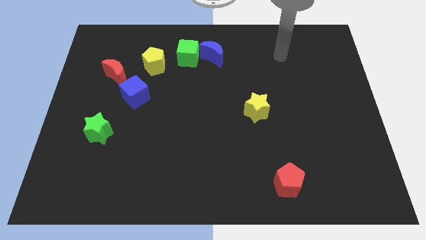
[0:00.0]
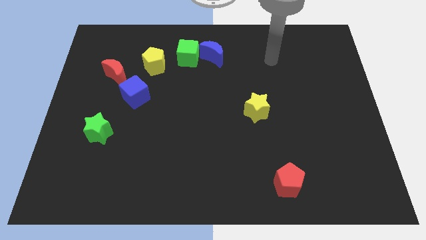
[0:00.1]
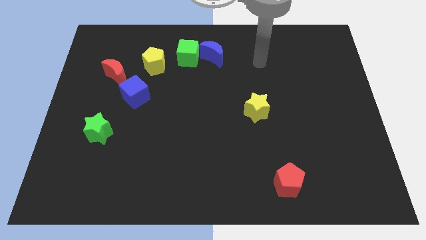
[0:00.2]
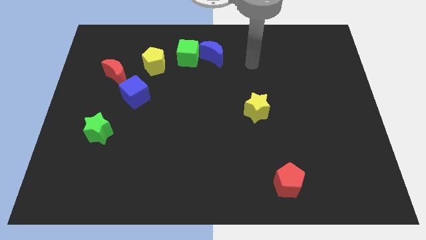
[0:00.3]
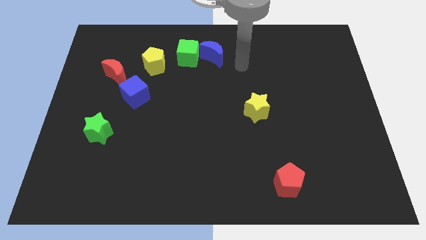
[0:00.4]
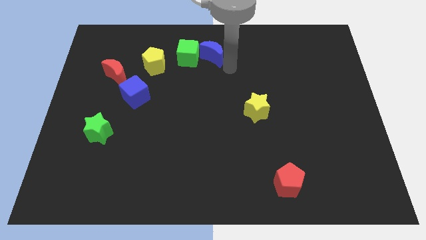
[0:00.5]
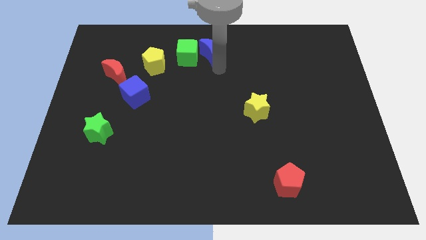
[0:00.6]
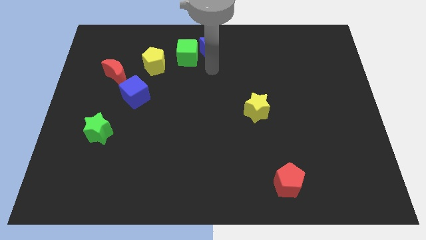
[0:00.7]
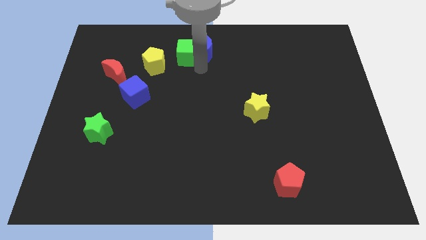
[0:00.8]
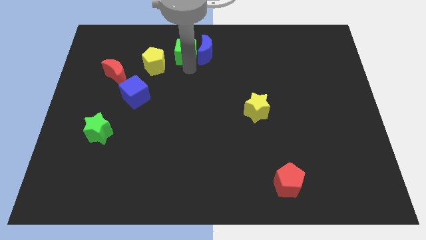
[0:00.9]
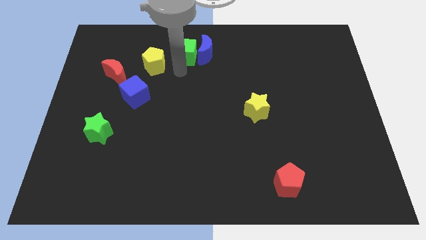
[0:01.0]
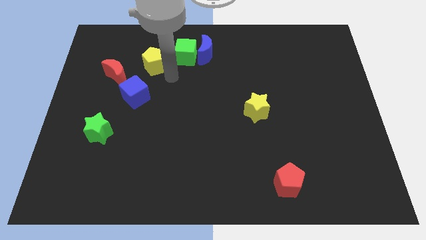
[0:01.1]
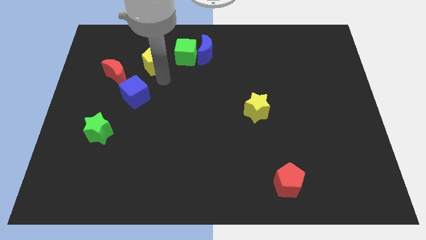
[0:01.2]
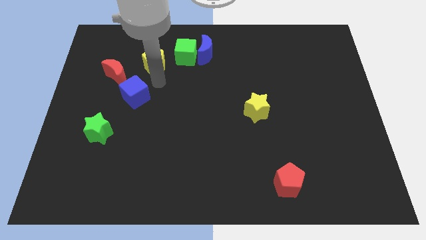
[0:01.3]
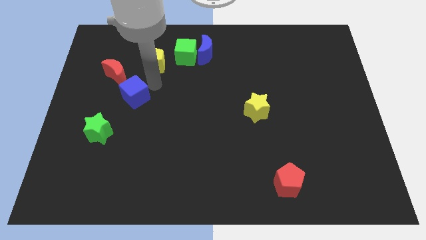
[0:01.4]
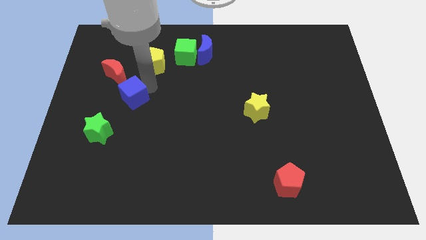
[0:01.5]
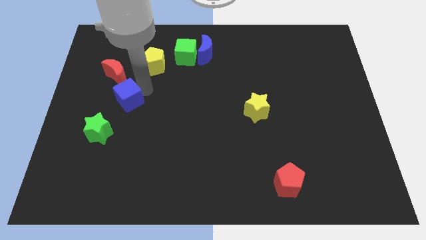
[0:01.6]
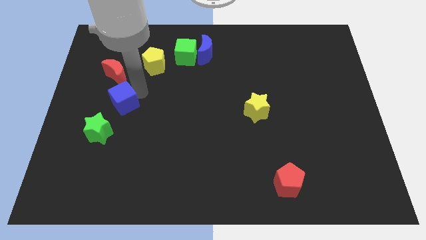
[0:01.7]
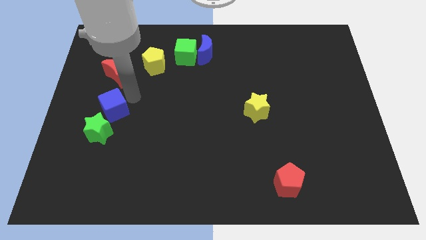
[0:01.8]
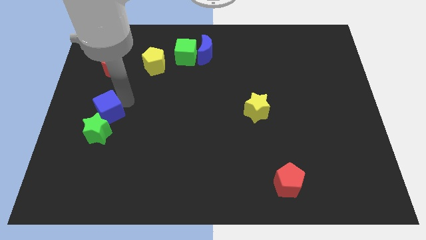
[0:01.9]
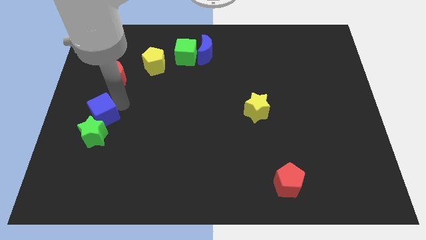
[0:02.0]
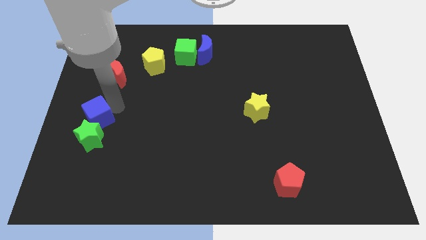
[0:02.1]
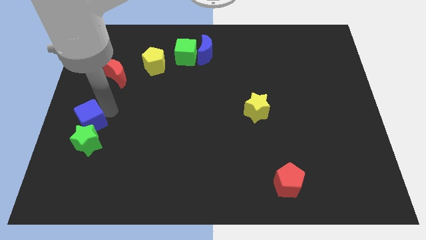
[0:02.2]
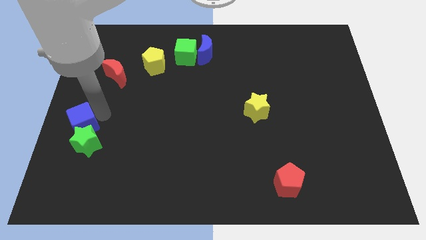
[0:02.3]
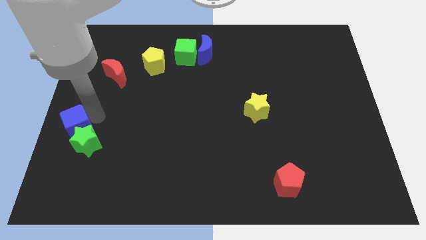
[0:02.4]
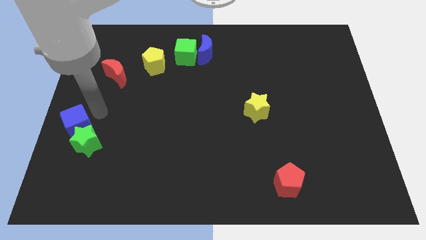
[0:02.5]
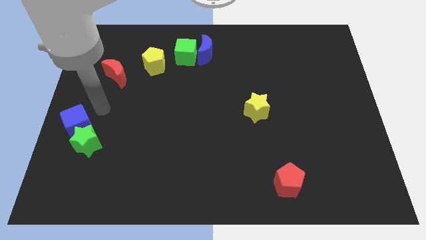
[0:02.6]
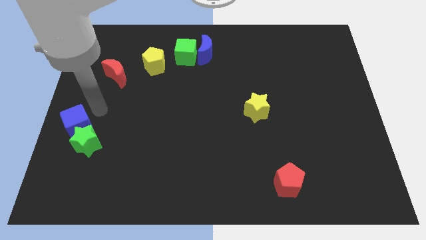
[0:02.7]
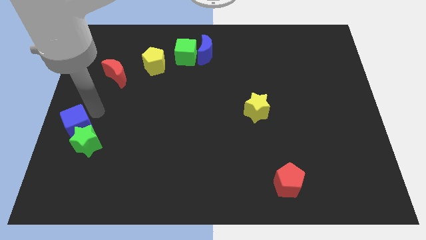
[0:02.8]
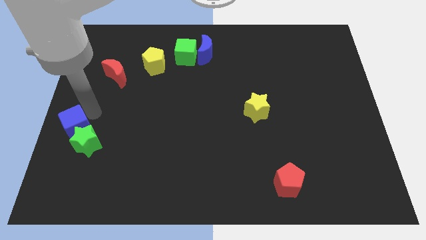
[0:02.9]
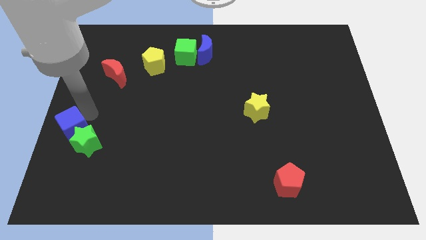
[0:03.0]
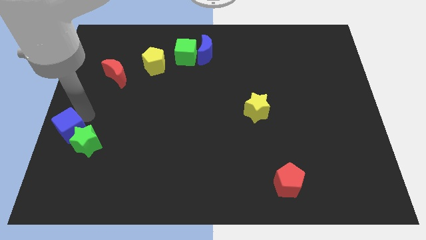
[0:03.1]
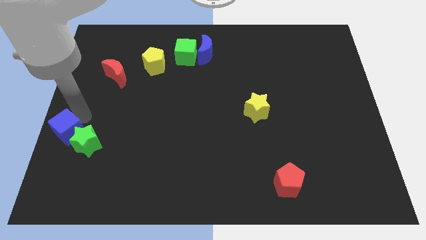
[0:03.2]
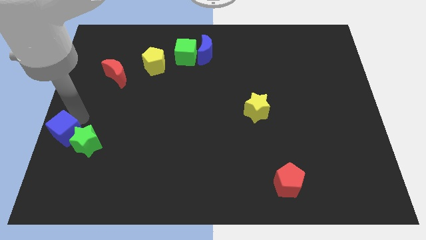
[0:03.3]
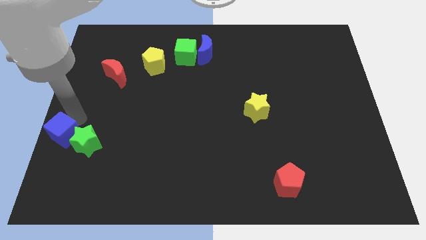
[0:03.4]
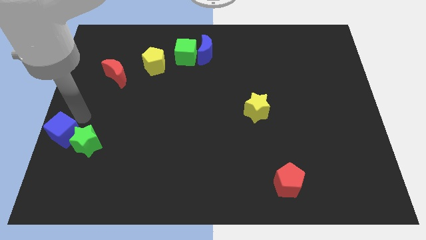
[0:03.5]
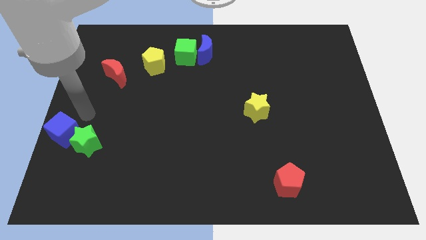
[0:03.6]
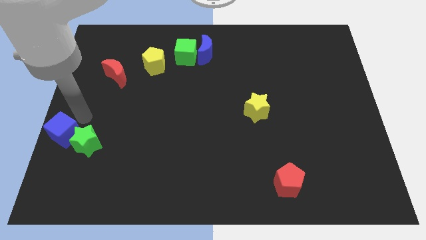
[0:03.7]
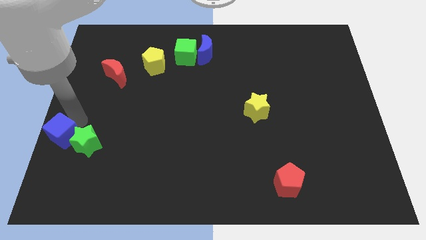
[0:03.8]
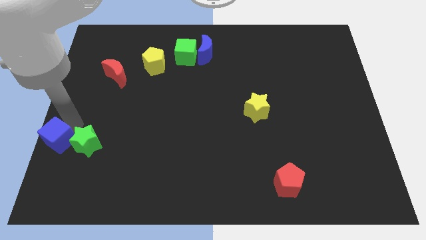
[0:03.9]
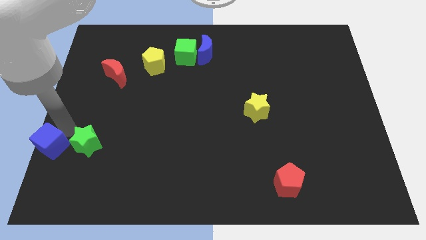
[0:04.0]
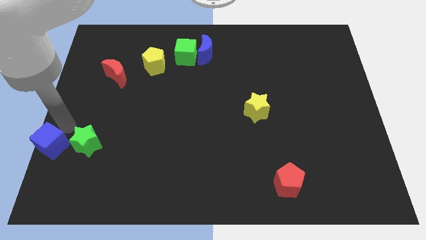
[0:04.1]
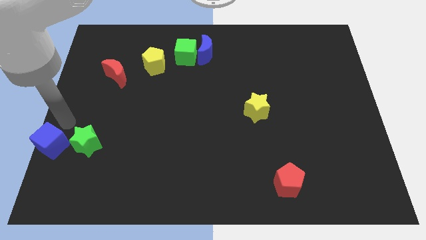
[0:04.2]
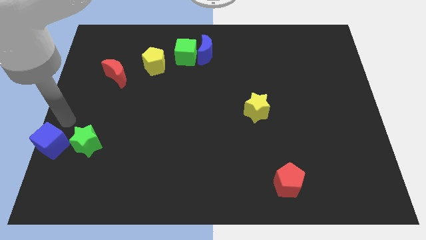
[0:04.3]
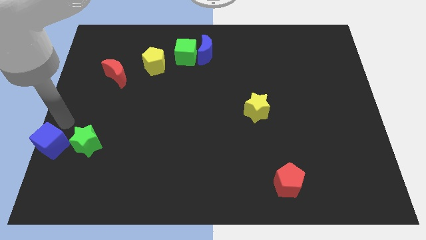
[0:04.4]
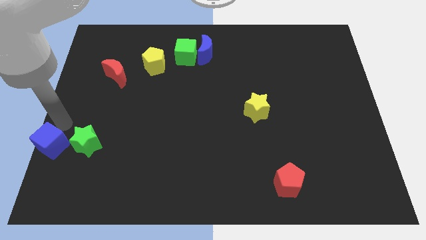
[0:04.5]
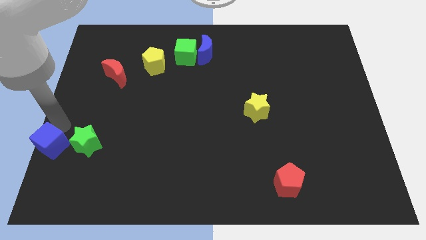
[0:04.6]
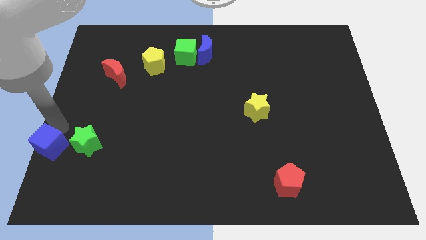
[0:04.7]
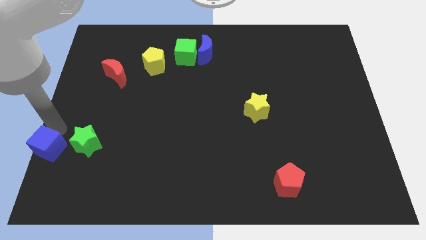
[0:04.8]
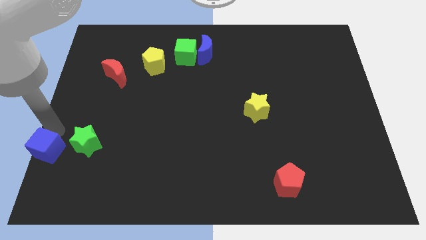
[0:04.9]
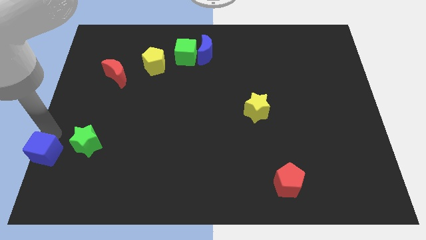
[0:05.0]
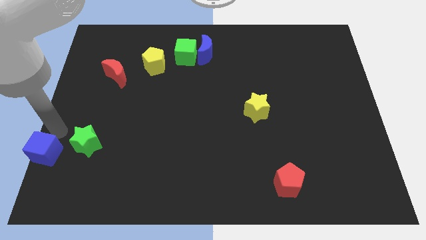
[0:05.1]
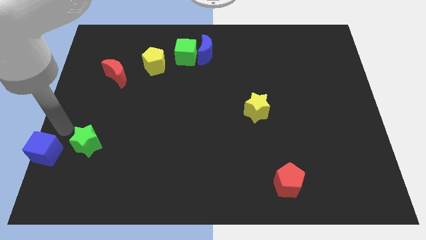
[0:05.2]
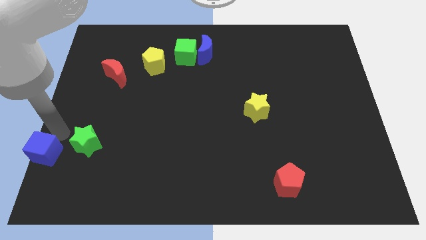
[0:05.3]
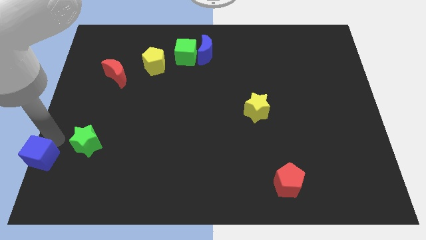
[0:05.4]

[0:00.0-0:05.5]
put the blue cube to the bottom left of the board

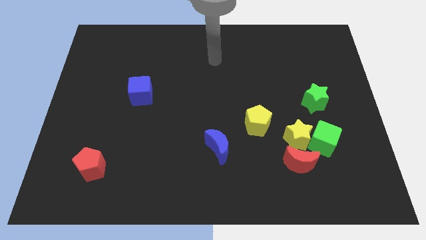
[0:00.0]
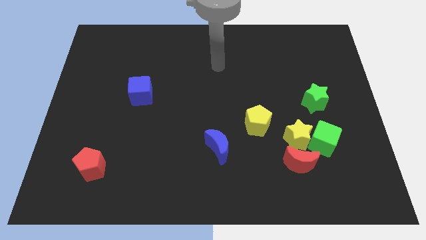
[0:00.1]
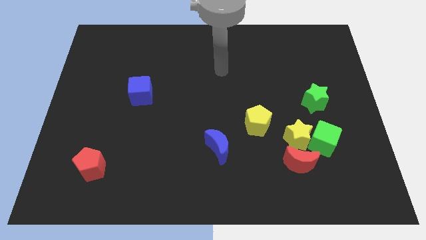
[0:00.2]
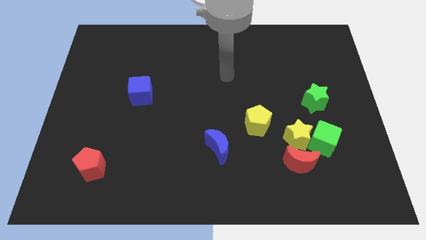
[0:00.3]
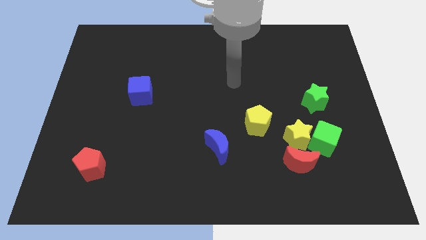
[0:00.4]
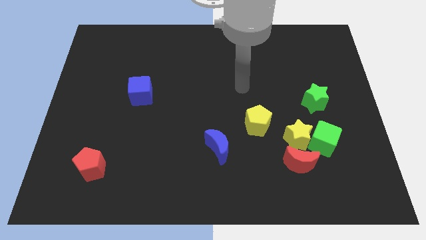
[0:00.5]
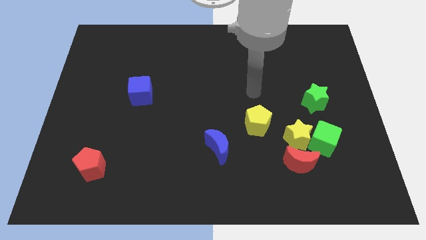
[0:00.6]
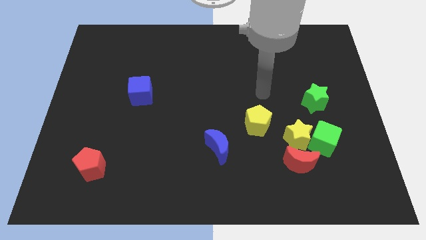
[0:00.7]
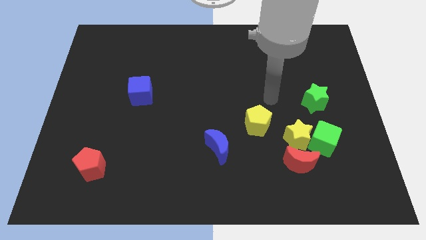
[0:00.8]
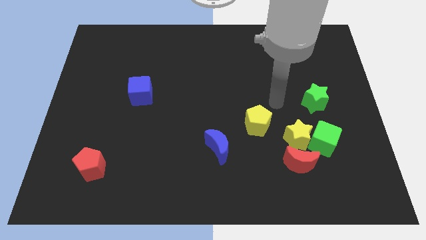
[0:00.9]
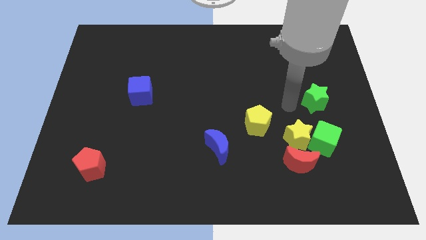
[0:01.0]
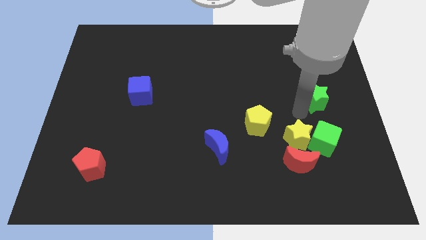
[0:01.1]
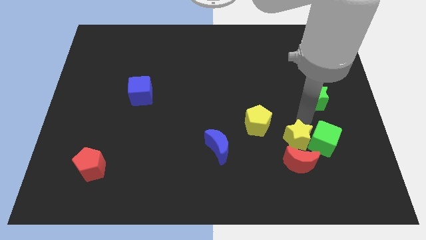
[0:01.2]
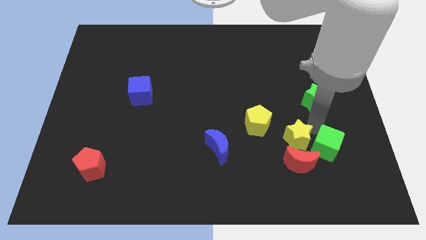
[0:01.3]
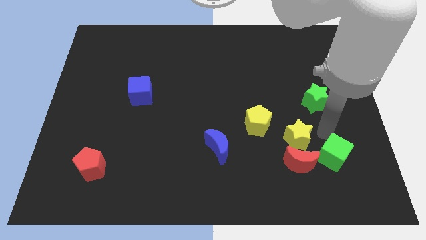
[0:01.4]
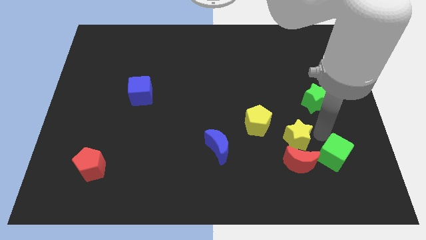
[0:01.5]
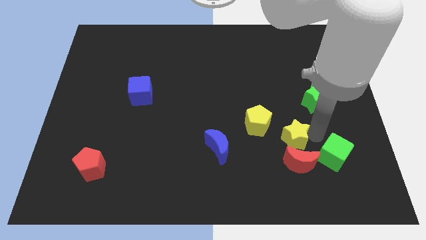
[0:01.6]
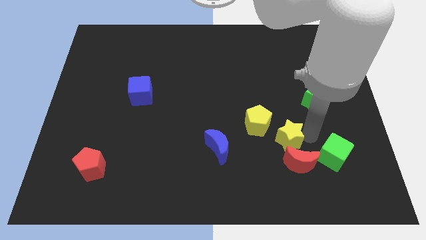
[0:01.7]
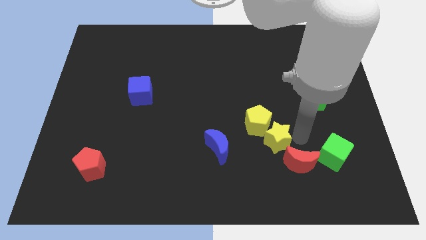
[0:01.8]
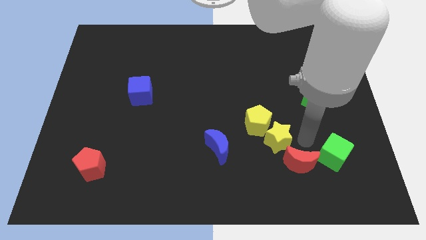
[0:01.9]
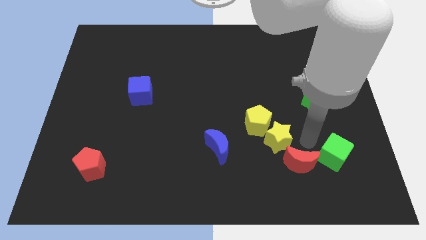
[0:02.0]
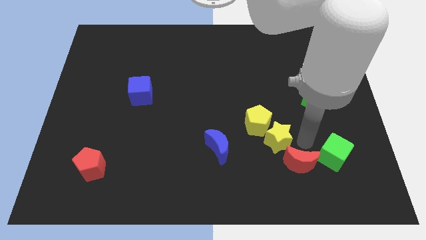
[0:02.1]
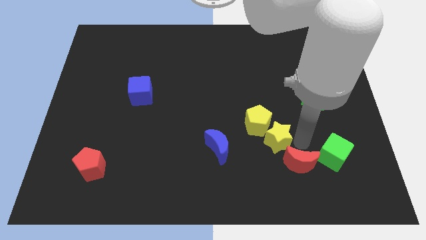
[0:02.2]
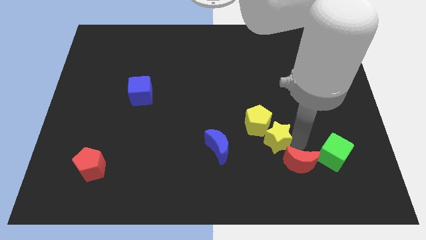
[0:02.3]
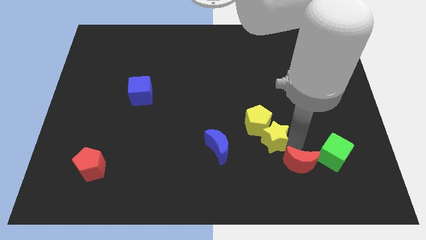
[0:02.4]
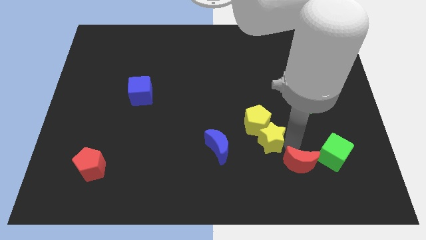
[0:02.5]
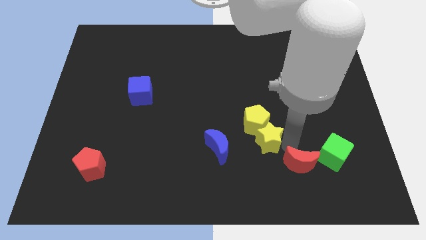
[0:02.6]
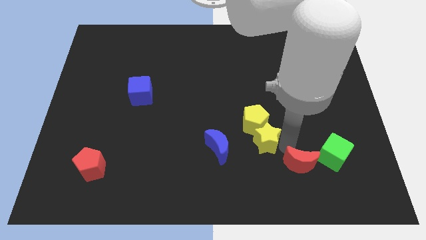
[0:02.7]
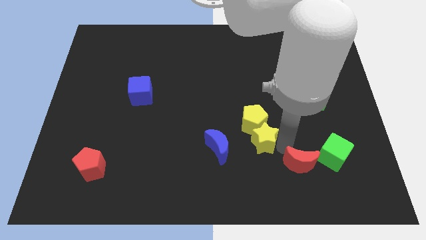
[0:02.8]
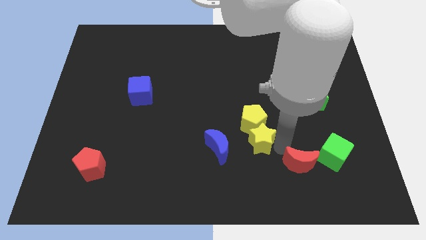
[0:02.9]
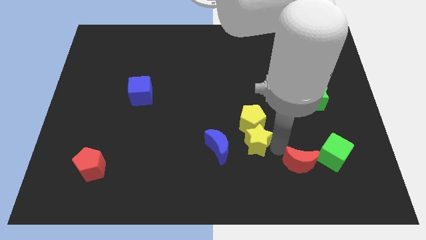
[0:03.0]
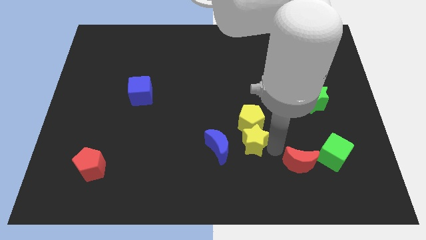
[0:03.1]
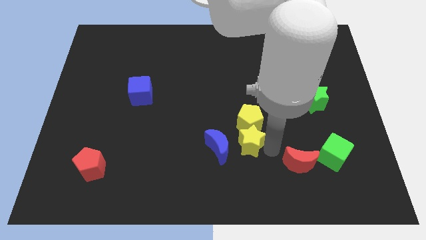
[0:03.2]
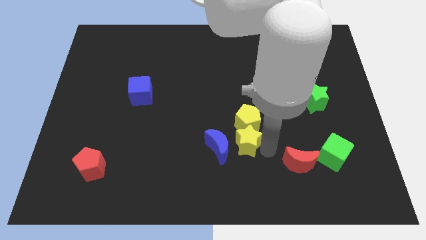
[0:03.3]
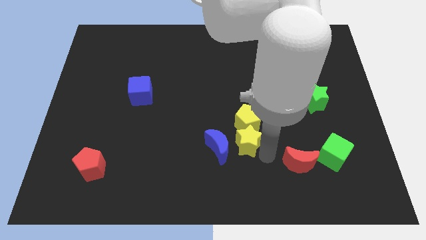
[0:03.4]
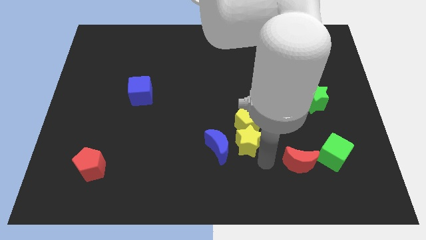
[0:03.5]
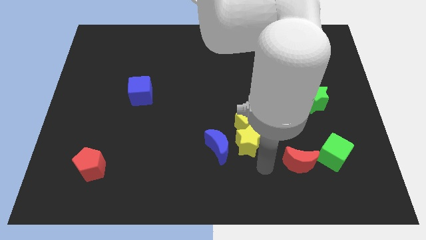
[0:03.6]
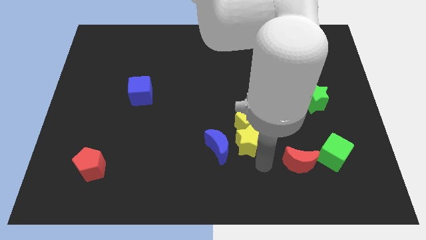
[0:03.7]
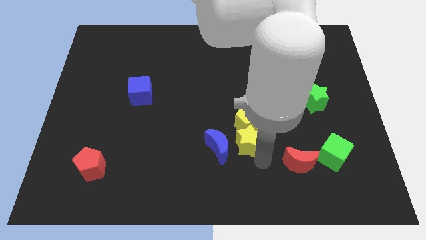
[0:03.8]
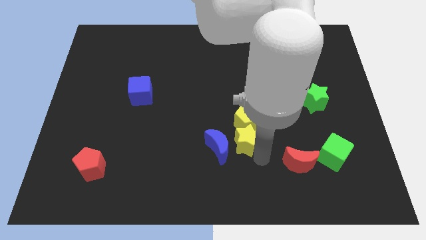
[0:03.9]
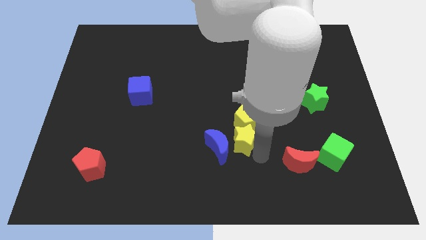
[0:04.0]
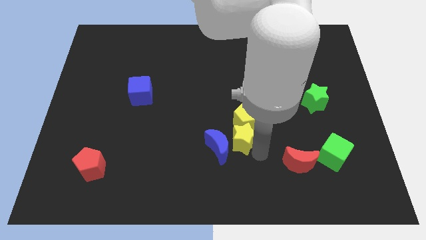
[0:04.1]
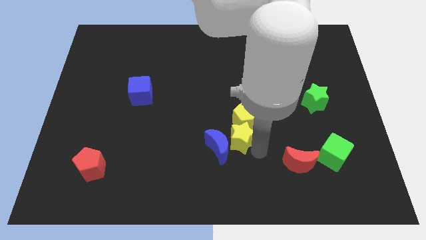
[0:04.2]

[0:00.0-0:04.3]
put the yellow star to the middle
